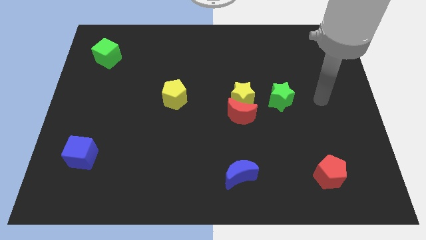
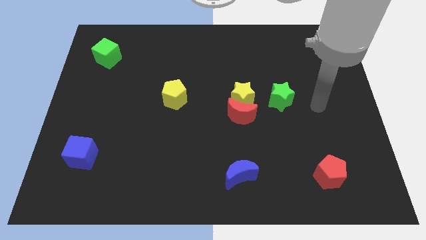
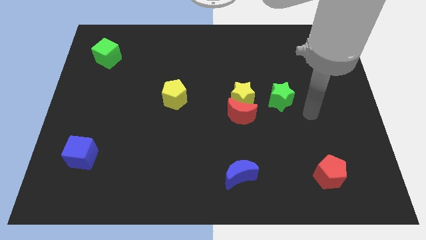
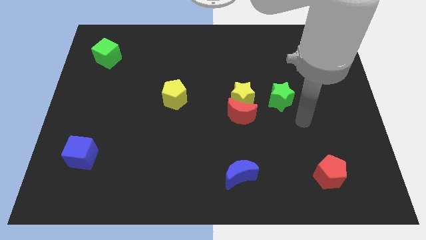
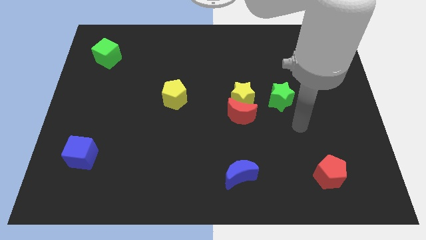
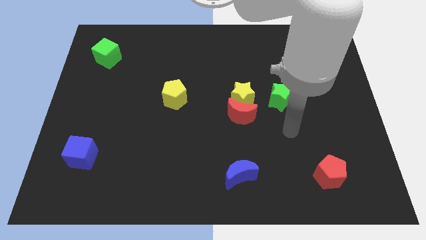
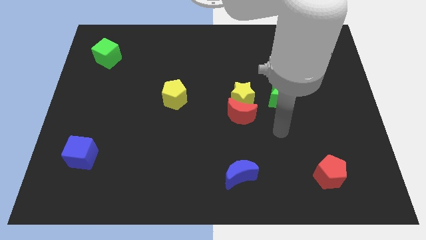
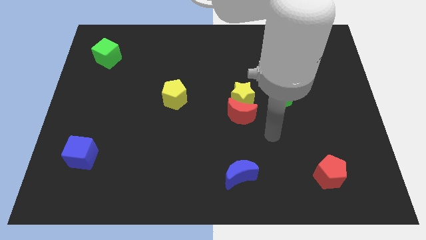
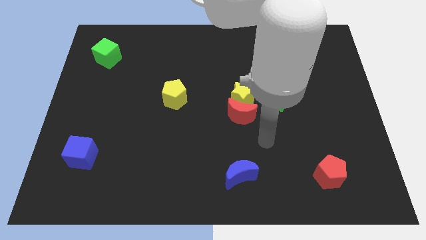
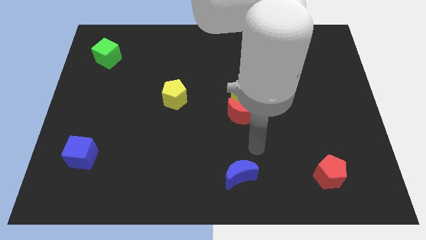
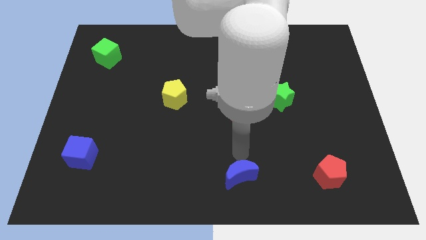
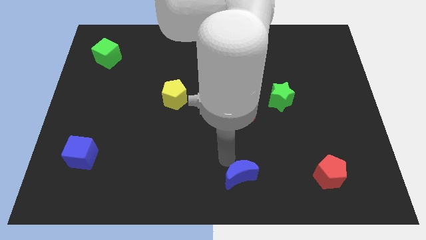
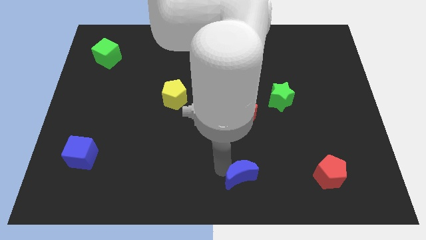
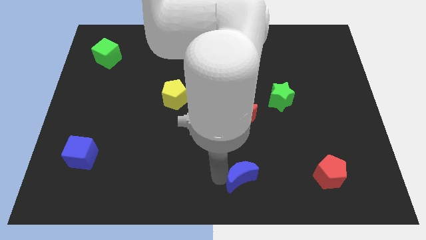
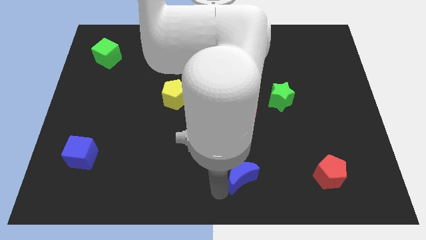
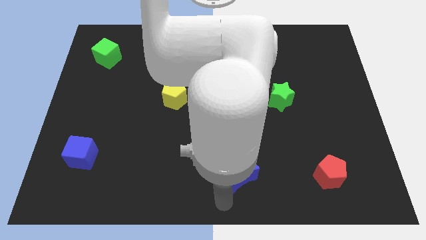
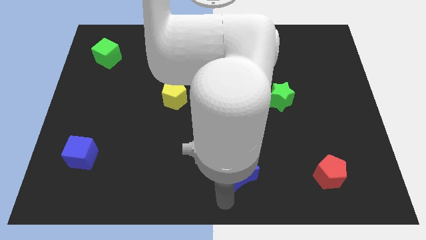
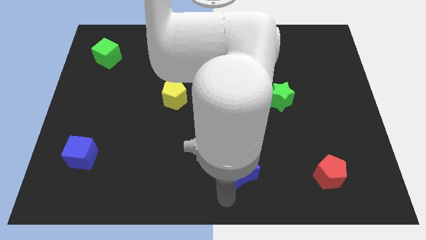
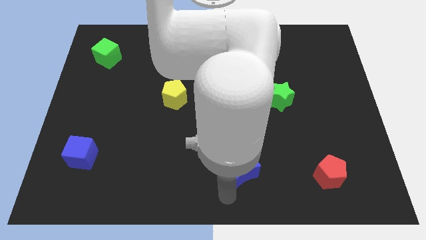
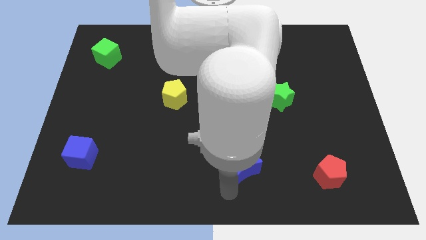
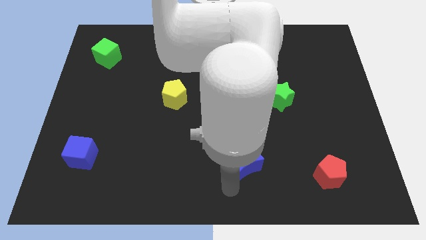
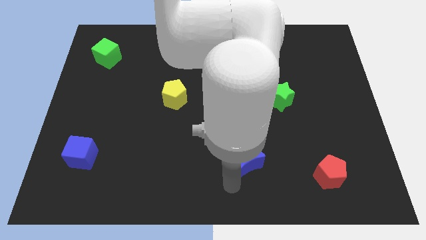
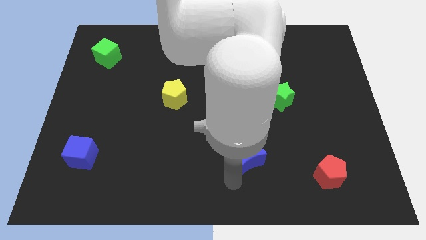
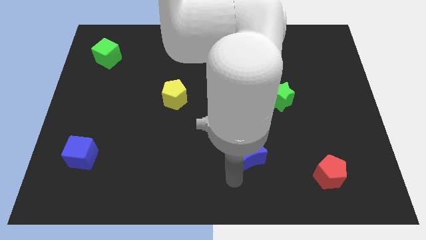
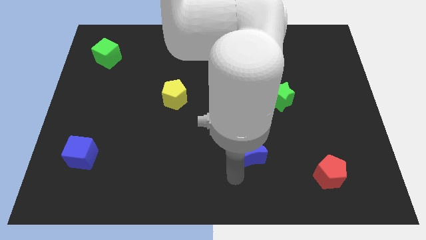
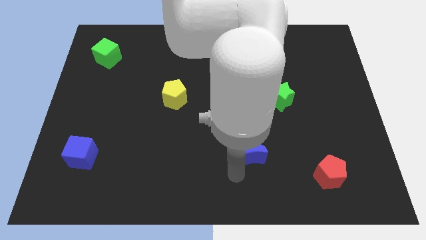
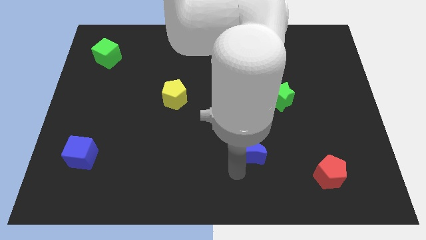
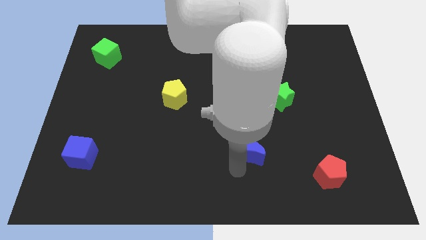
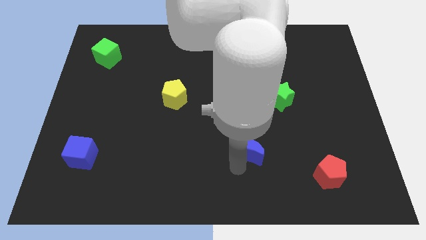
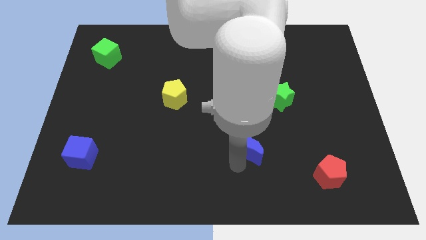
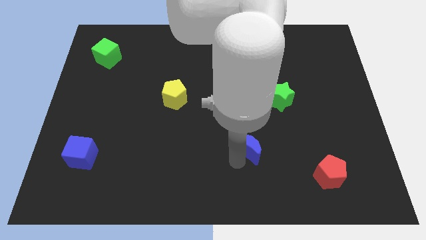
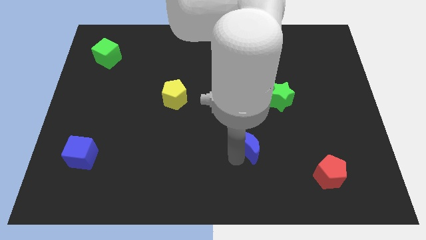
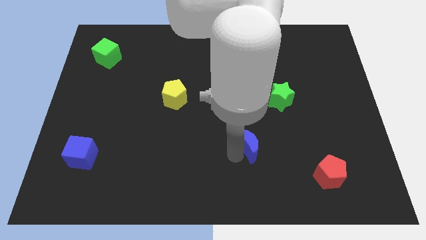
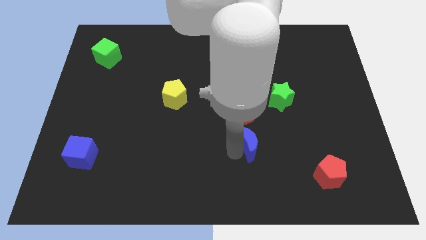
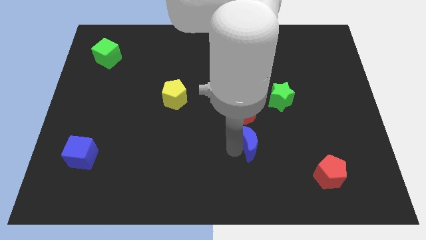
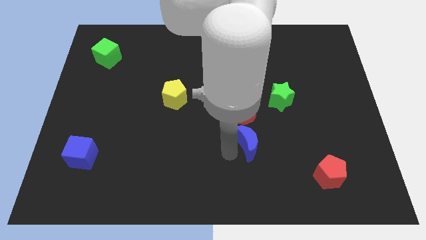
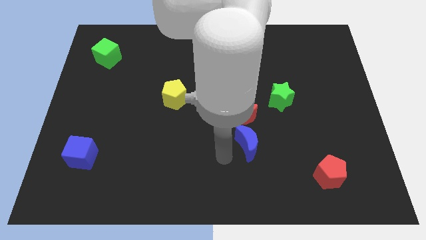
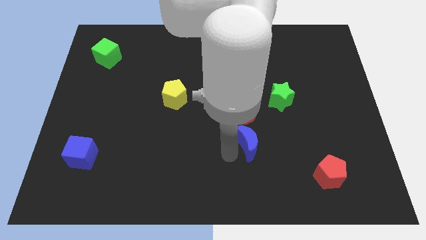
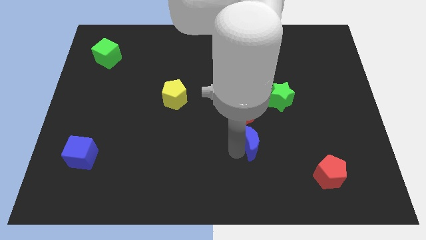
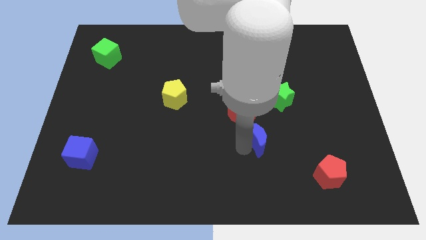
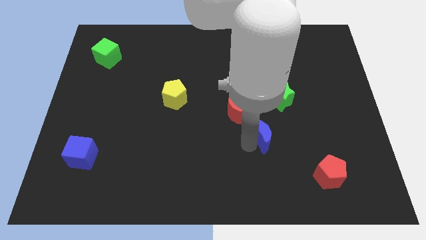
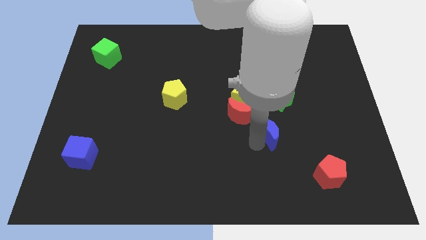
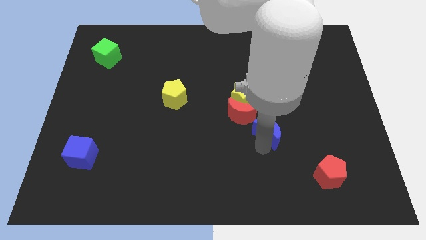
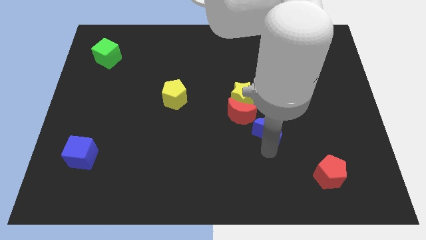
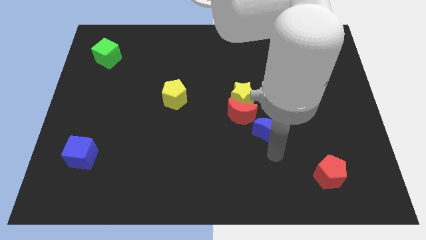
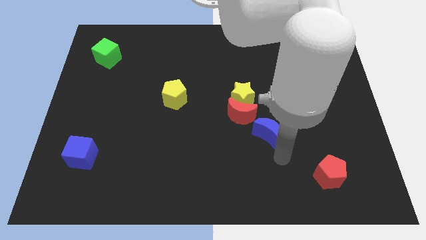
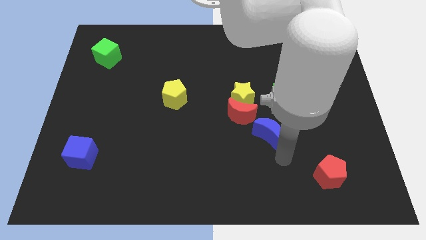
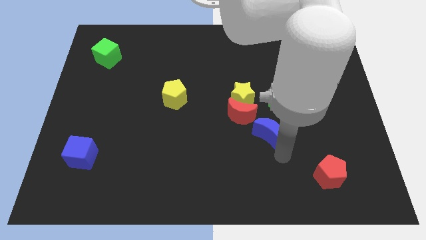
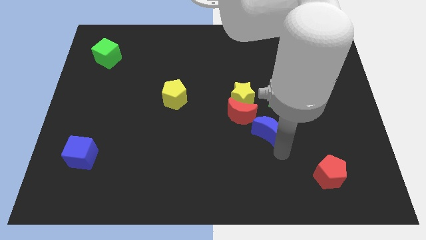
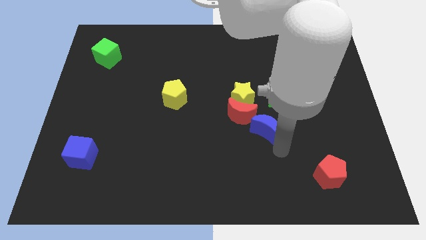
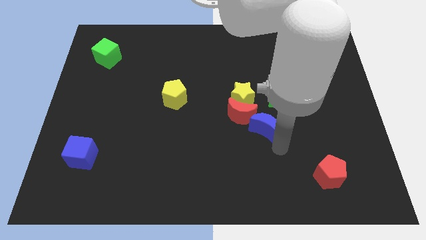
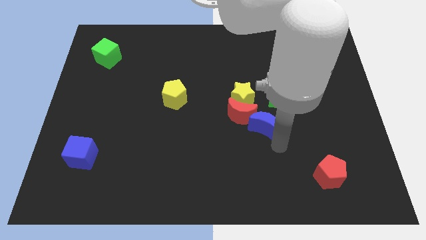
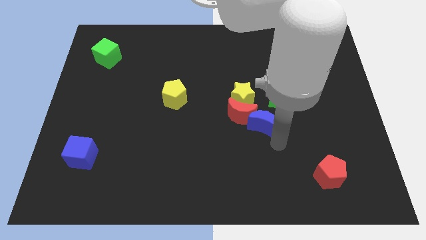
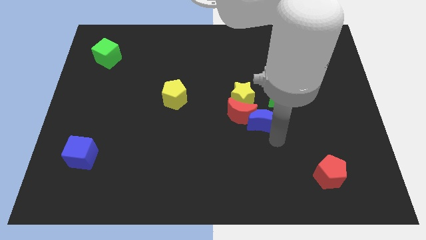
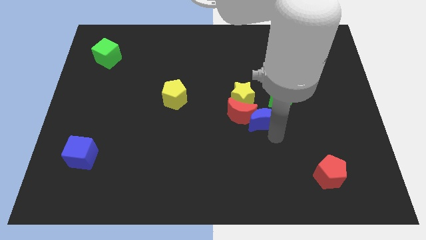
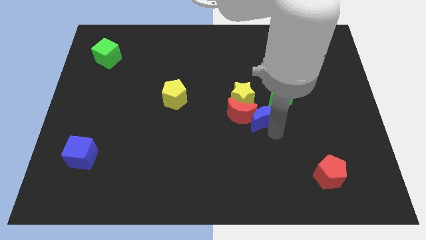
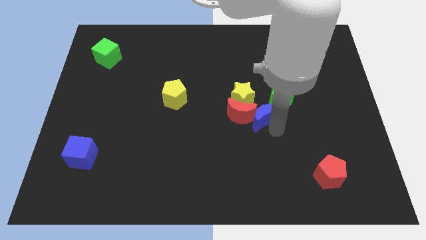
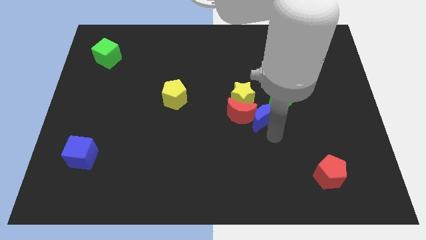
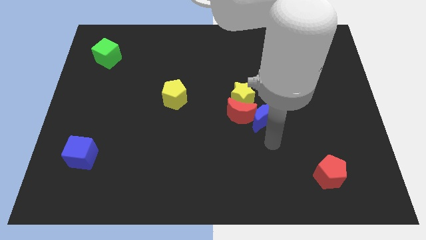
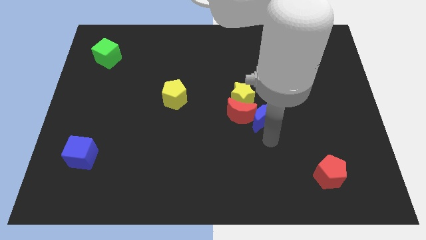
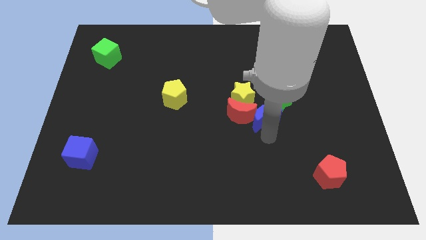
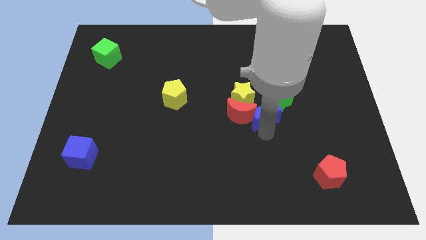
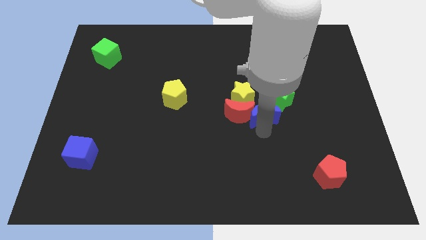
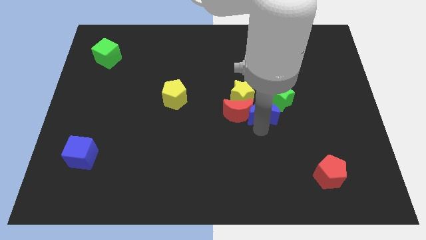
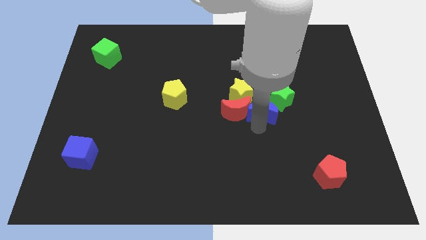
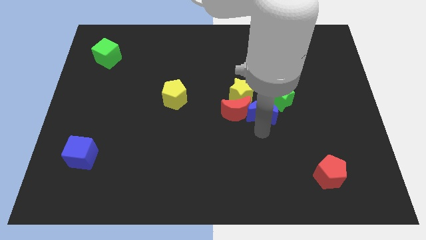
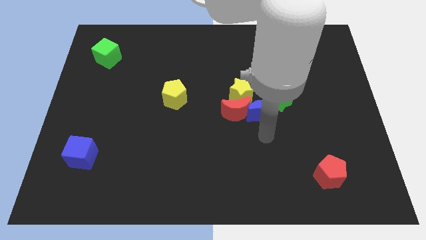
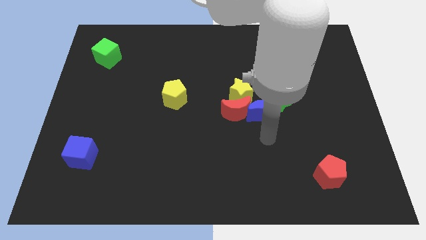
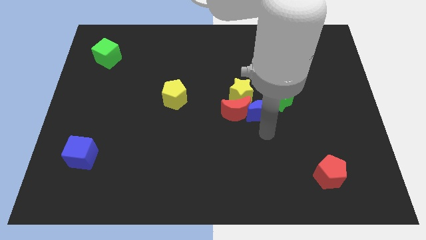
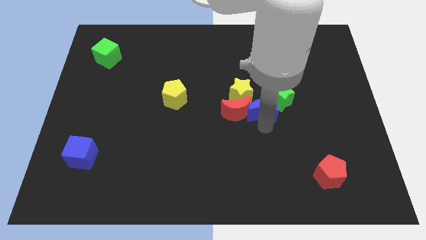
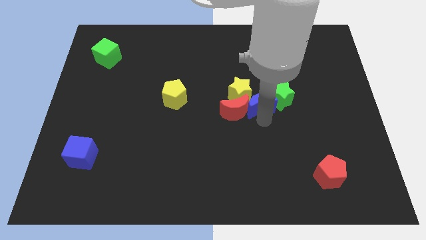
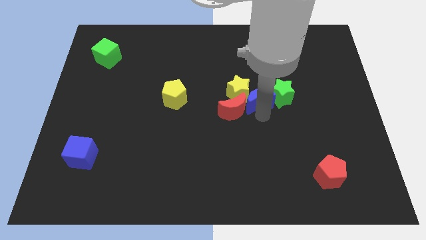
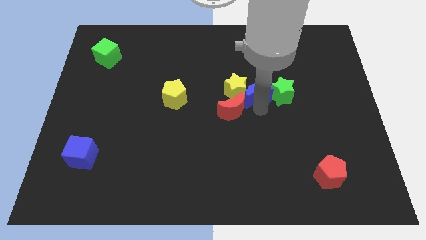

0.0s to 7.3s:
push the blue moon to the top left side of the green star
